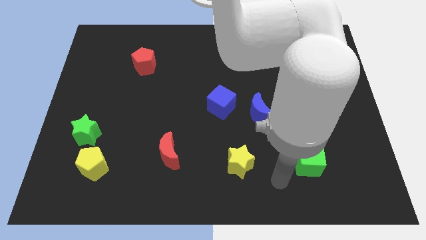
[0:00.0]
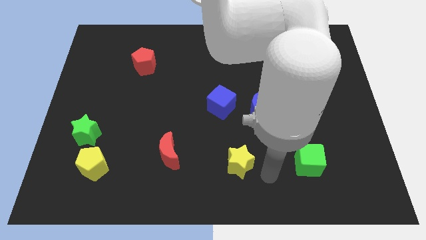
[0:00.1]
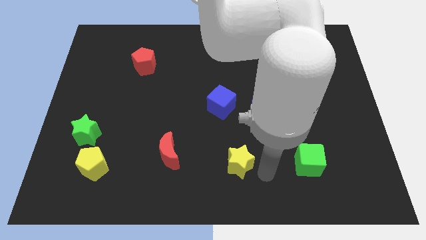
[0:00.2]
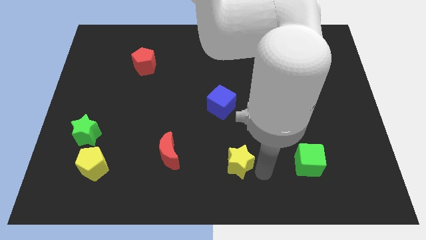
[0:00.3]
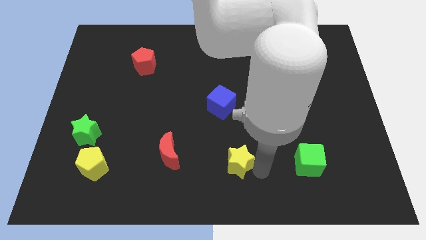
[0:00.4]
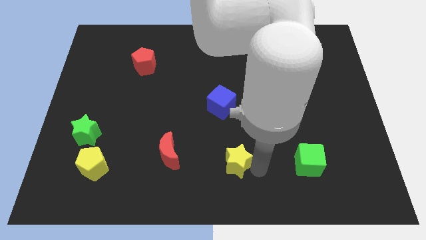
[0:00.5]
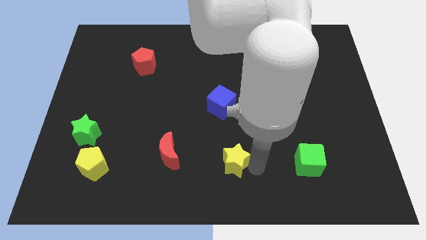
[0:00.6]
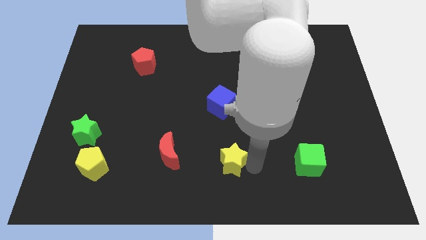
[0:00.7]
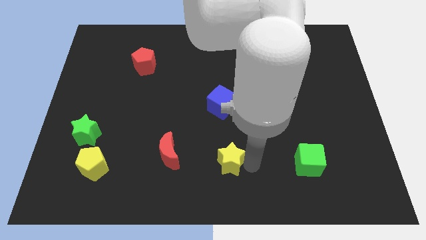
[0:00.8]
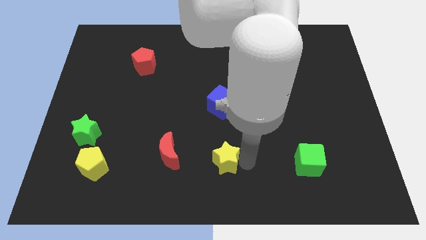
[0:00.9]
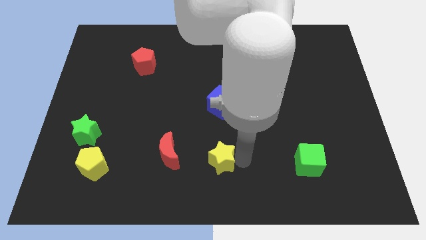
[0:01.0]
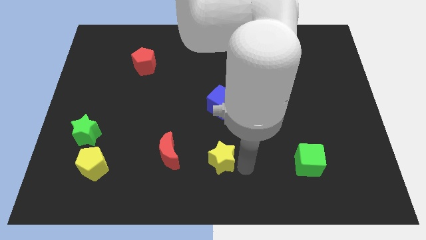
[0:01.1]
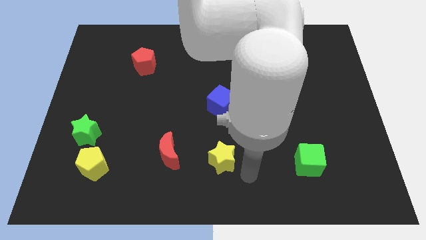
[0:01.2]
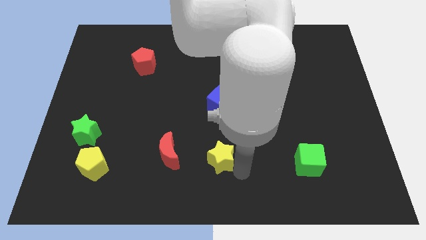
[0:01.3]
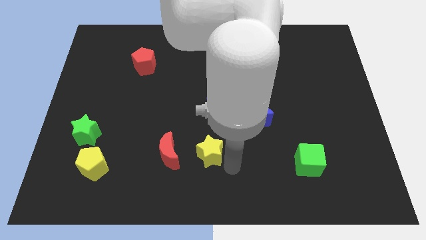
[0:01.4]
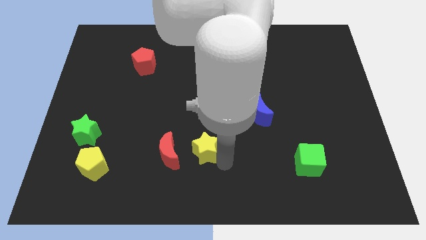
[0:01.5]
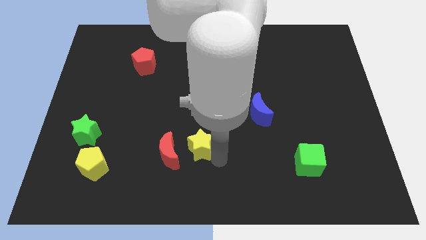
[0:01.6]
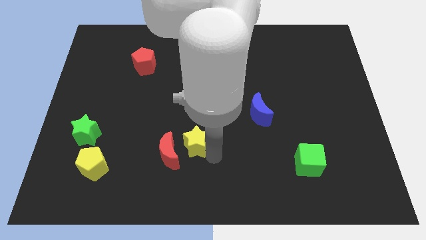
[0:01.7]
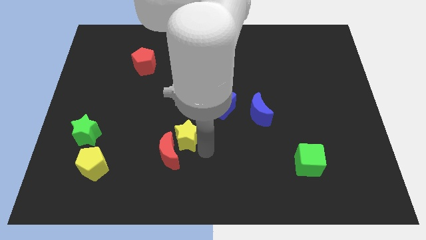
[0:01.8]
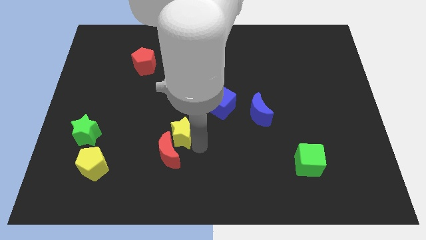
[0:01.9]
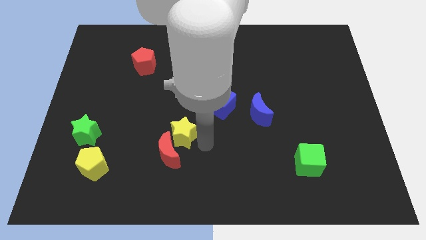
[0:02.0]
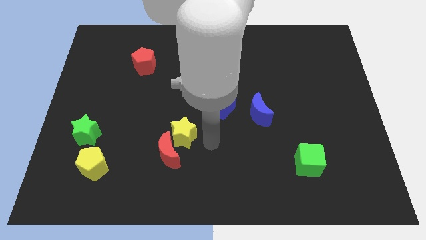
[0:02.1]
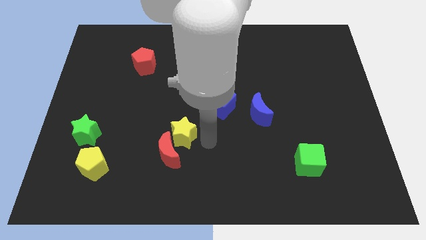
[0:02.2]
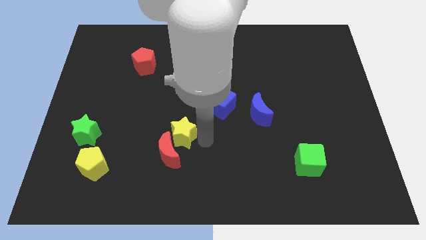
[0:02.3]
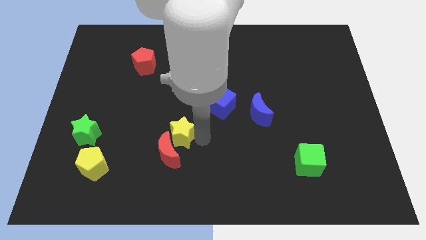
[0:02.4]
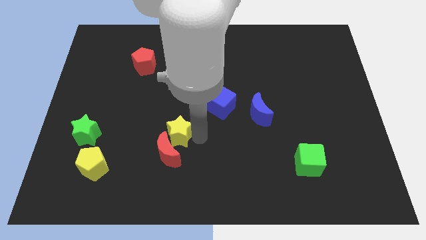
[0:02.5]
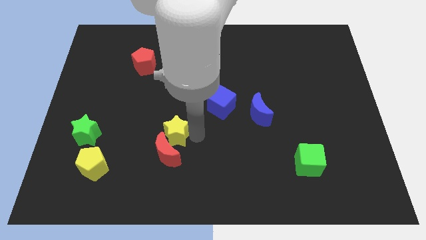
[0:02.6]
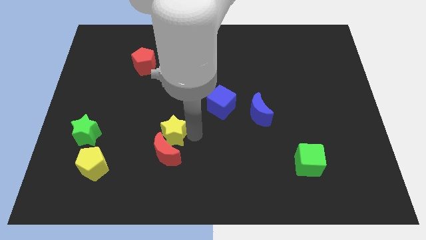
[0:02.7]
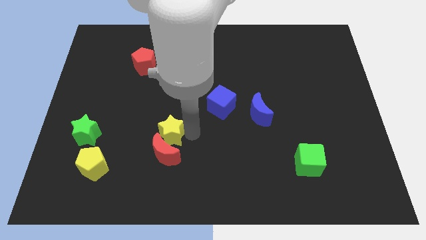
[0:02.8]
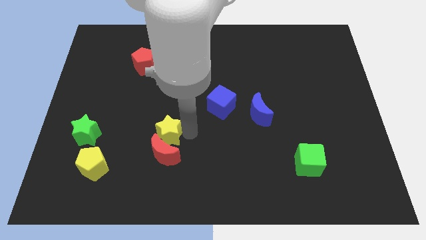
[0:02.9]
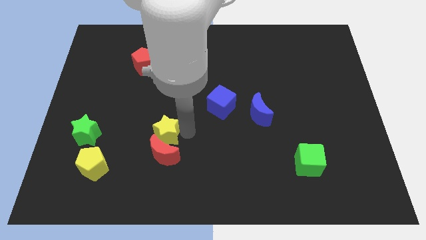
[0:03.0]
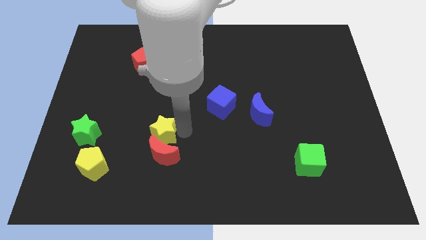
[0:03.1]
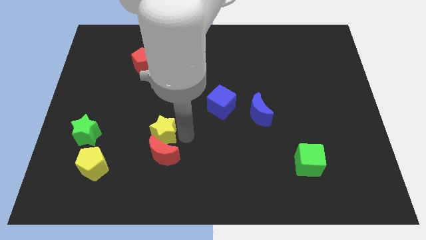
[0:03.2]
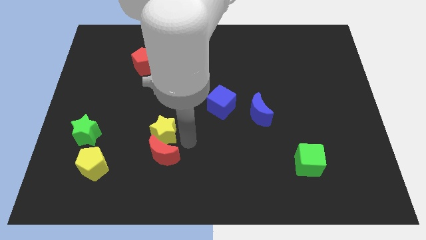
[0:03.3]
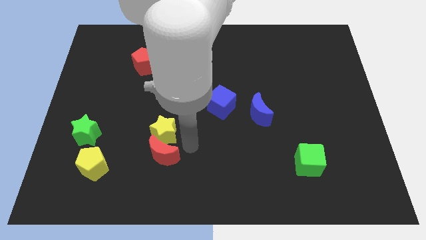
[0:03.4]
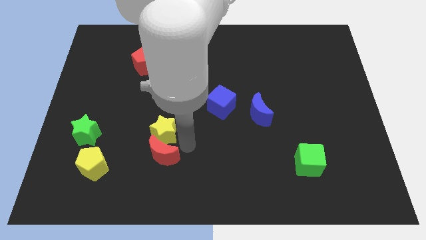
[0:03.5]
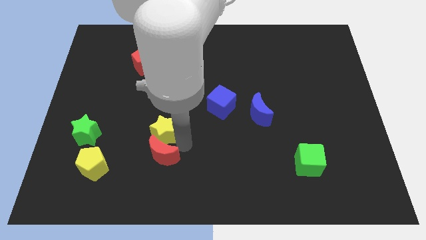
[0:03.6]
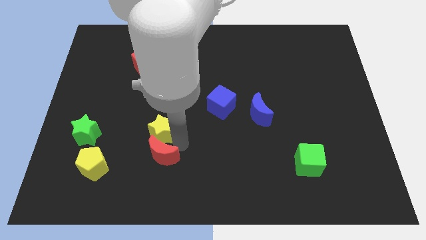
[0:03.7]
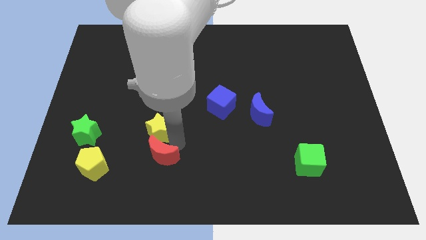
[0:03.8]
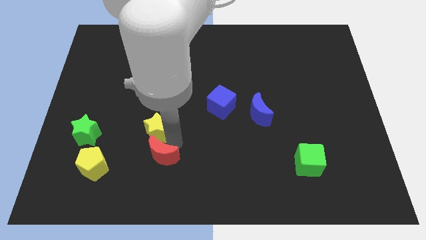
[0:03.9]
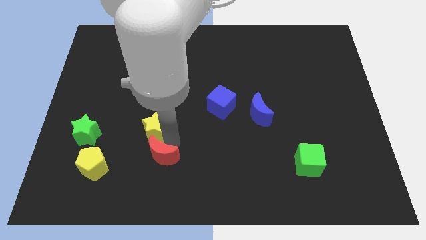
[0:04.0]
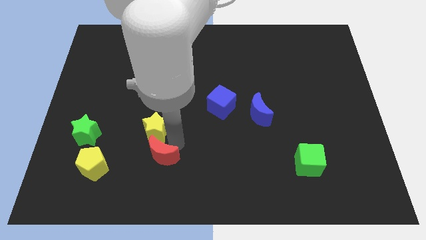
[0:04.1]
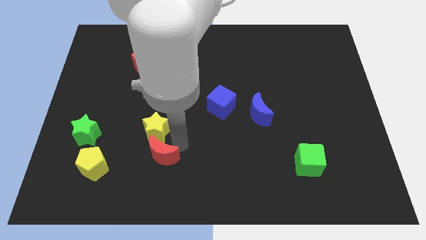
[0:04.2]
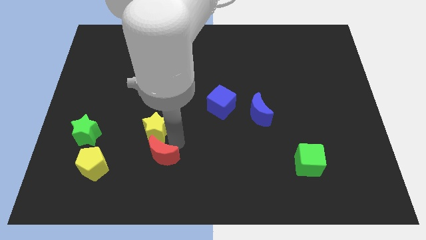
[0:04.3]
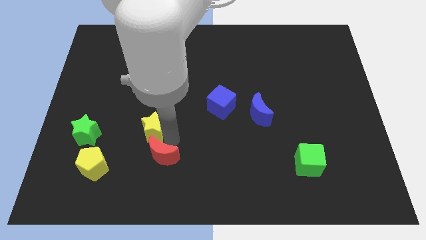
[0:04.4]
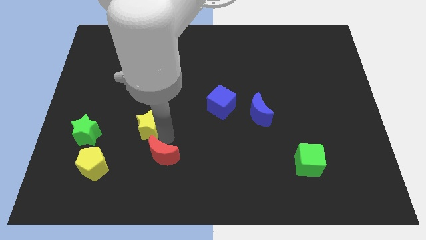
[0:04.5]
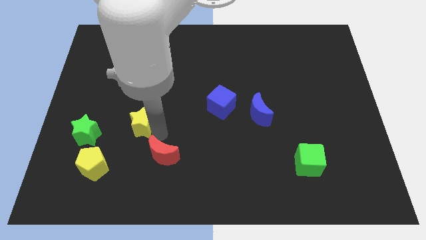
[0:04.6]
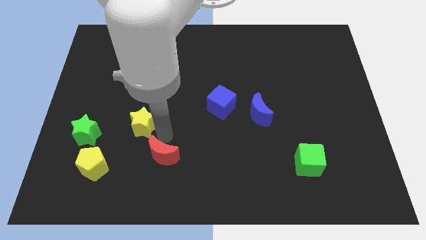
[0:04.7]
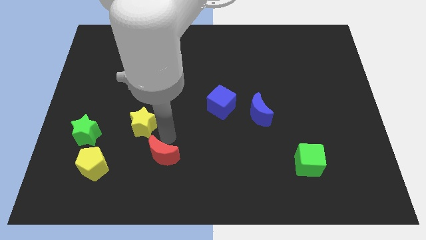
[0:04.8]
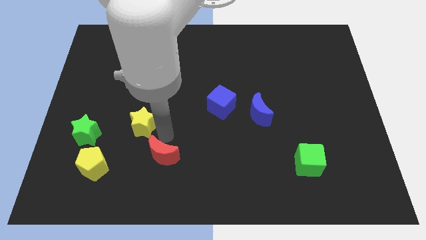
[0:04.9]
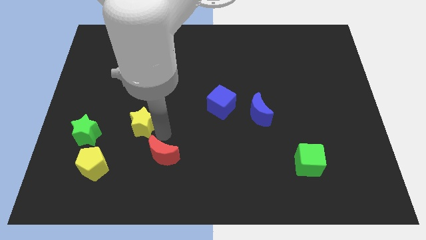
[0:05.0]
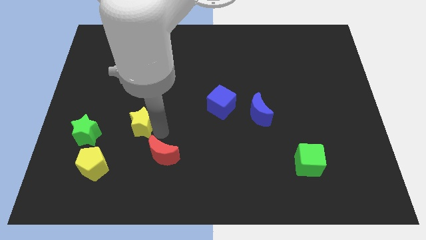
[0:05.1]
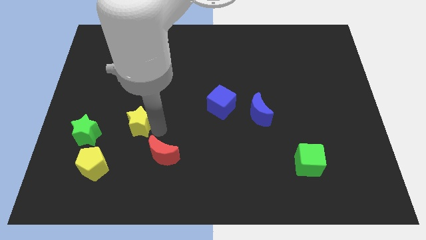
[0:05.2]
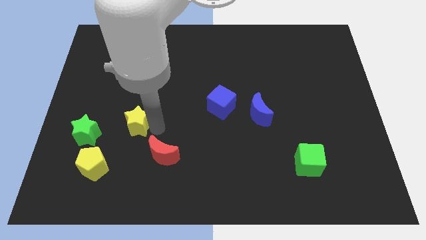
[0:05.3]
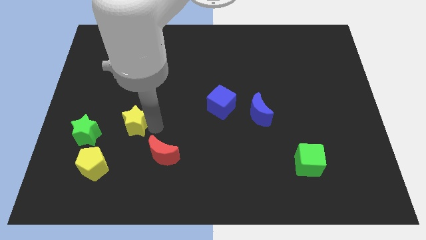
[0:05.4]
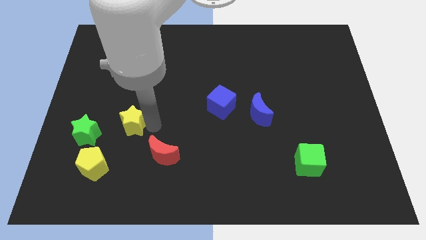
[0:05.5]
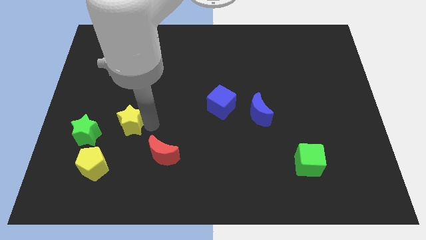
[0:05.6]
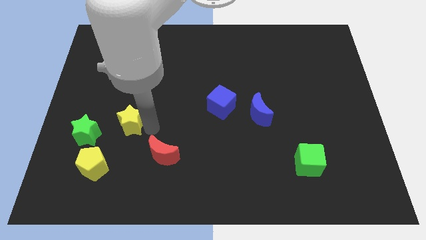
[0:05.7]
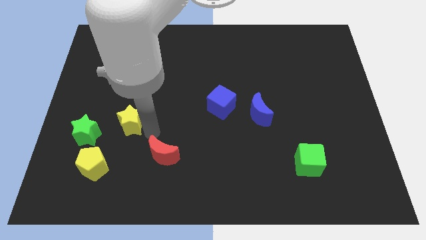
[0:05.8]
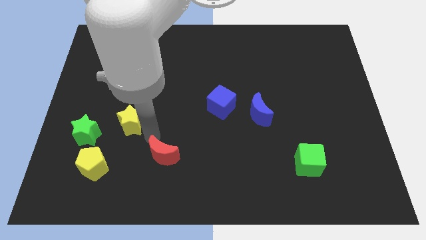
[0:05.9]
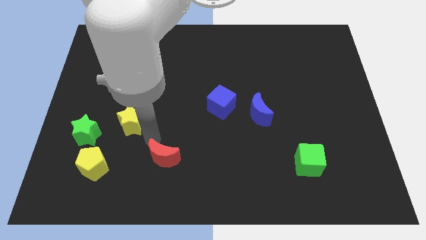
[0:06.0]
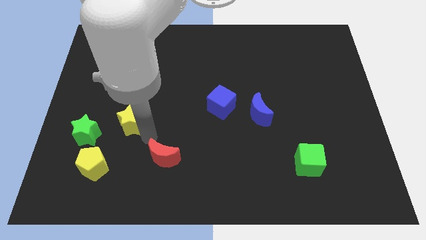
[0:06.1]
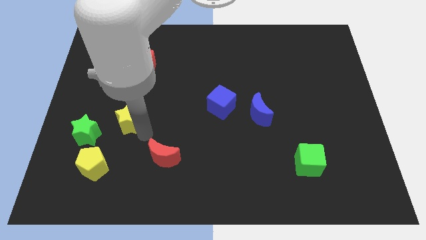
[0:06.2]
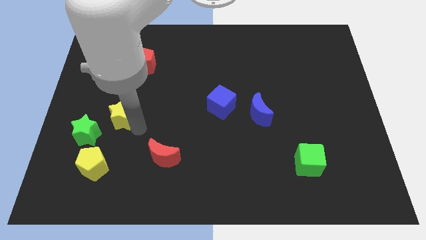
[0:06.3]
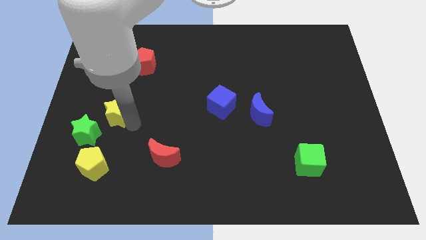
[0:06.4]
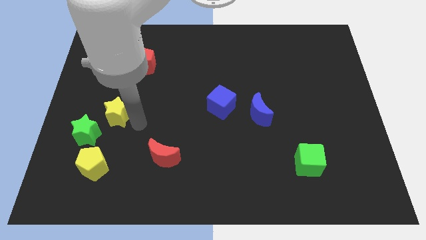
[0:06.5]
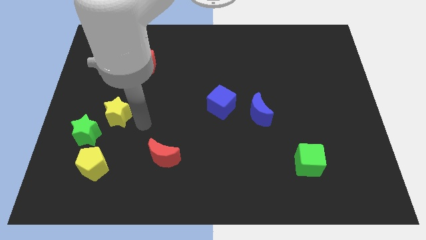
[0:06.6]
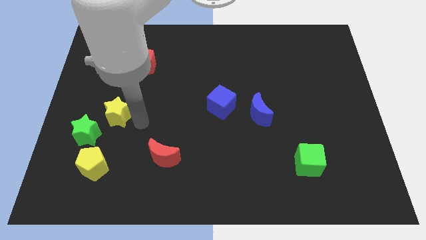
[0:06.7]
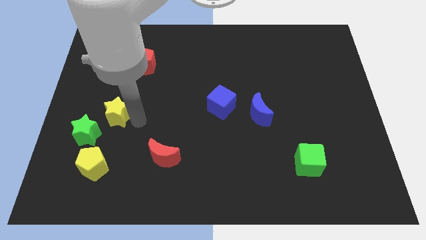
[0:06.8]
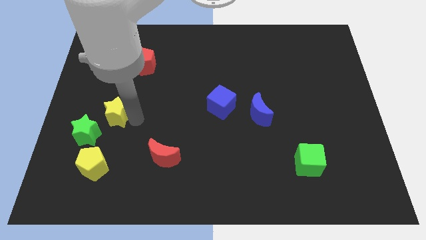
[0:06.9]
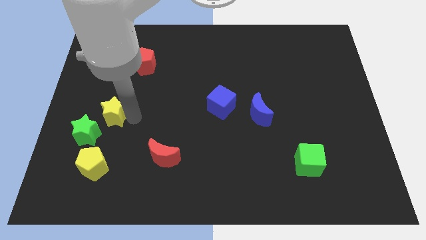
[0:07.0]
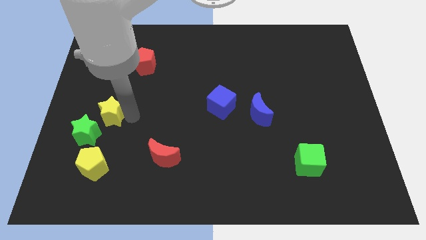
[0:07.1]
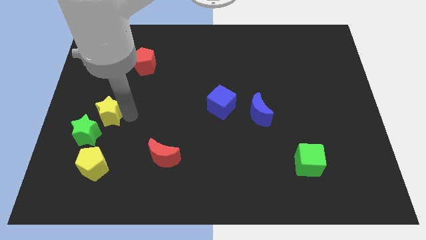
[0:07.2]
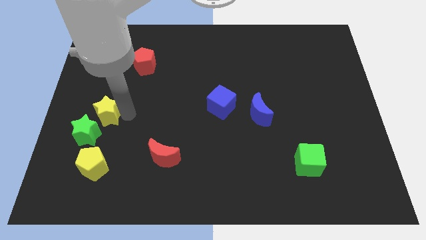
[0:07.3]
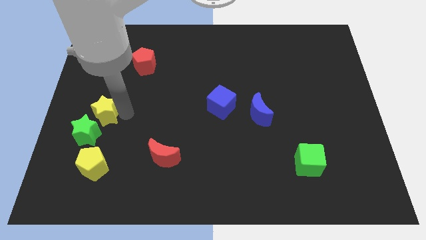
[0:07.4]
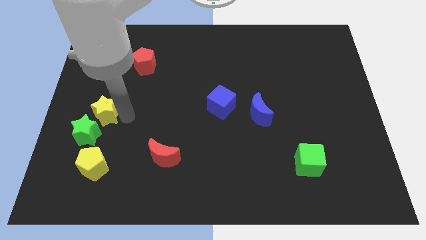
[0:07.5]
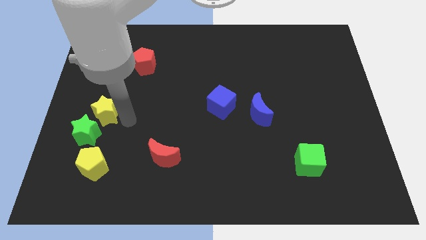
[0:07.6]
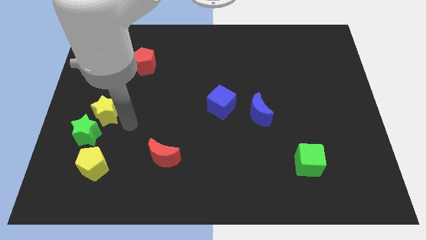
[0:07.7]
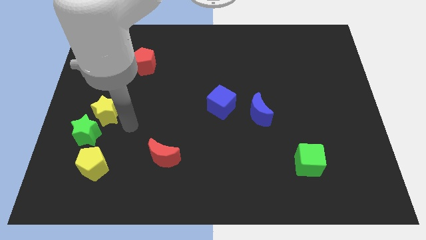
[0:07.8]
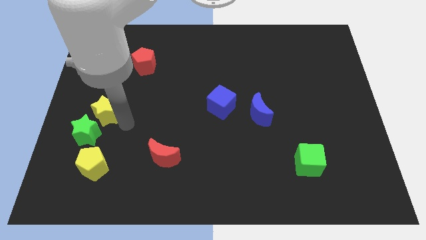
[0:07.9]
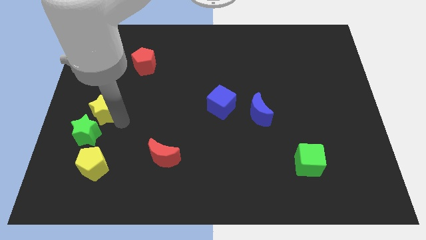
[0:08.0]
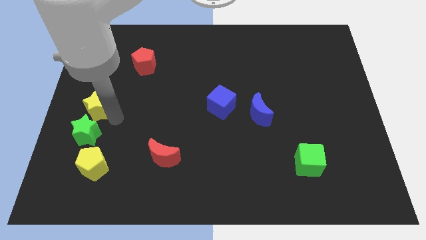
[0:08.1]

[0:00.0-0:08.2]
slide the yellow star to the center left
